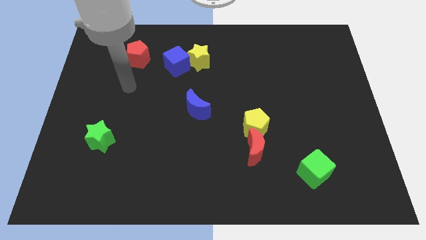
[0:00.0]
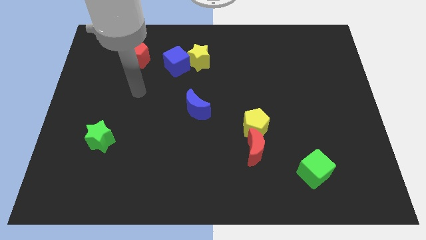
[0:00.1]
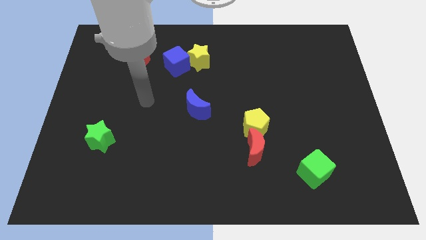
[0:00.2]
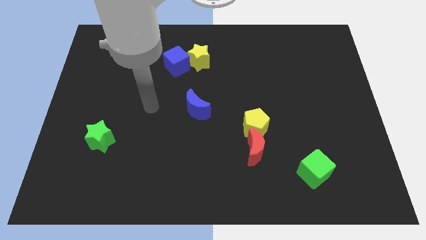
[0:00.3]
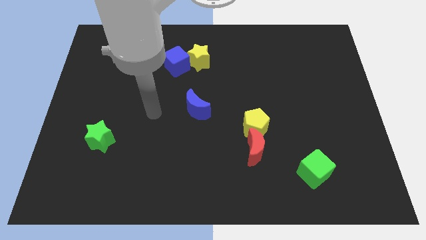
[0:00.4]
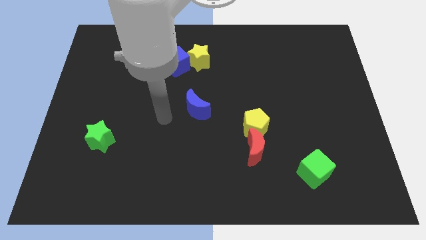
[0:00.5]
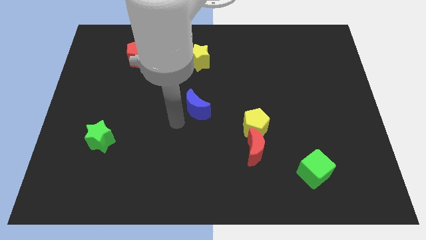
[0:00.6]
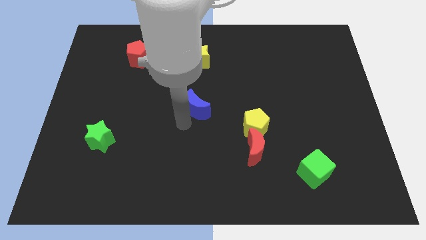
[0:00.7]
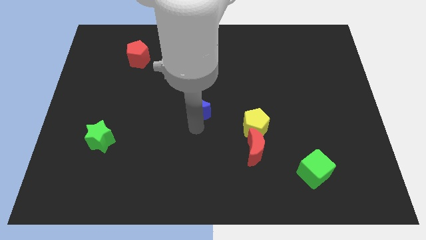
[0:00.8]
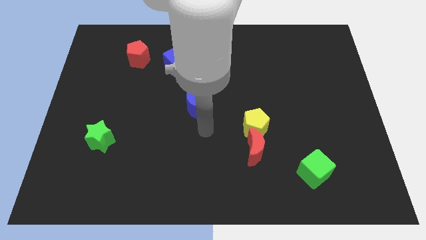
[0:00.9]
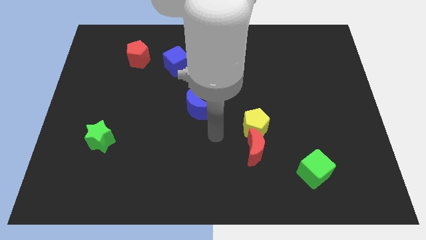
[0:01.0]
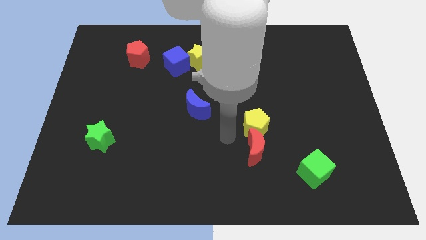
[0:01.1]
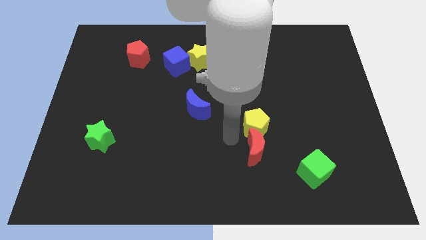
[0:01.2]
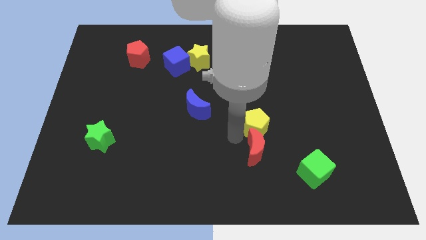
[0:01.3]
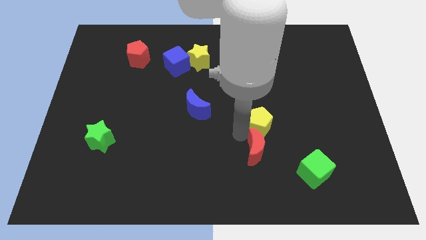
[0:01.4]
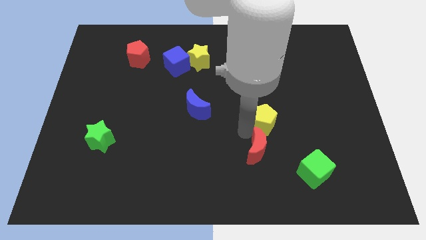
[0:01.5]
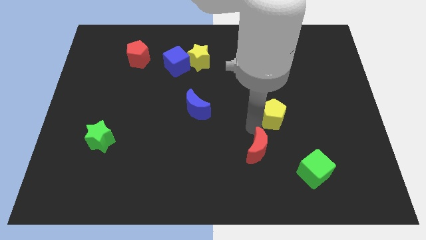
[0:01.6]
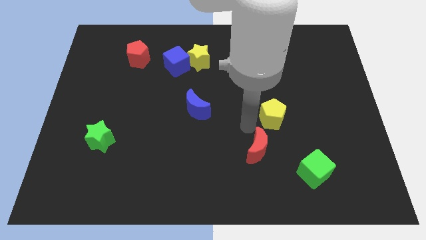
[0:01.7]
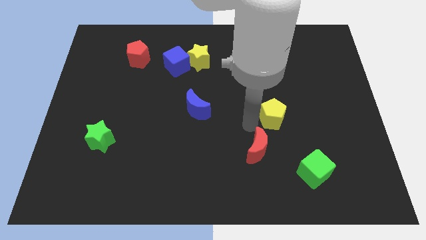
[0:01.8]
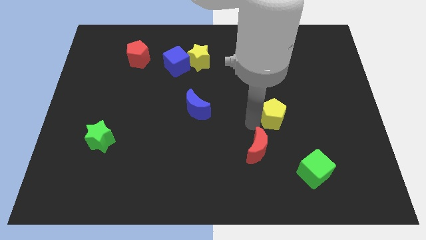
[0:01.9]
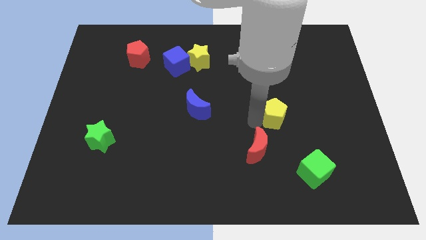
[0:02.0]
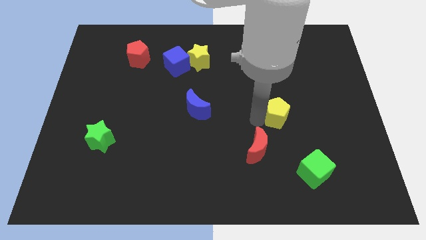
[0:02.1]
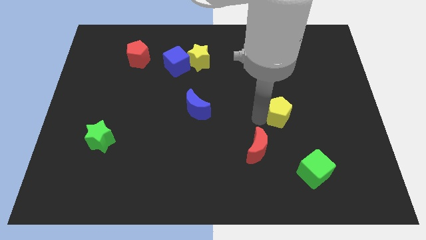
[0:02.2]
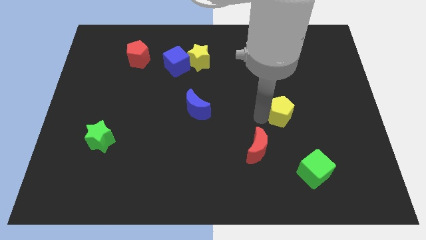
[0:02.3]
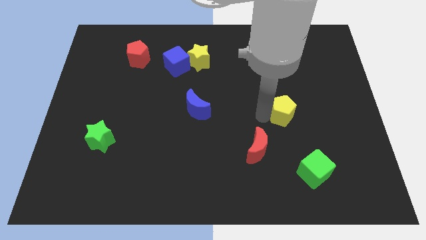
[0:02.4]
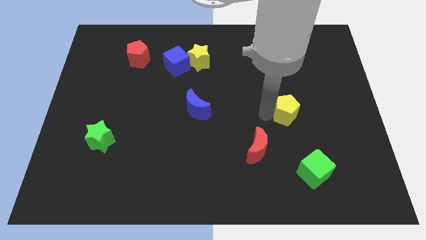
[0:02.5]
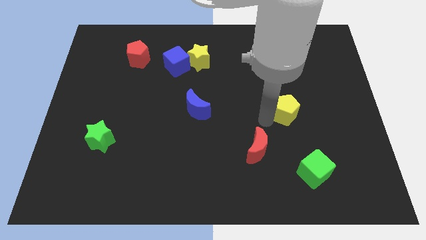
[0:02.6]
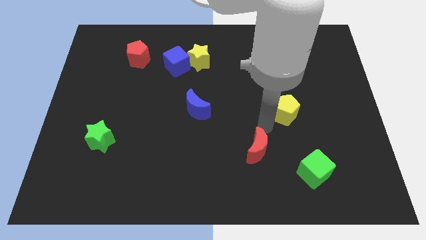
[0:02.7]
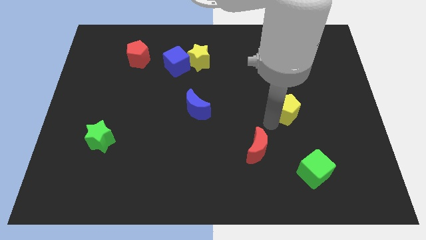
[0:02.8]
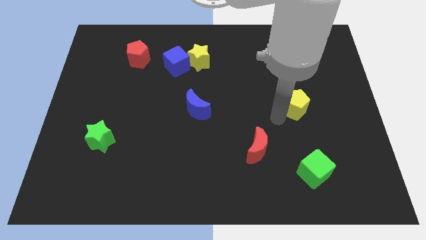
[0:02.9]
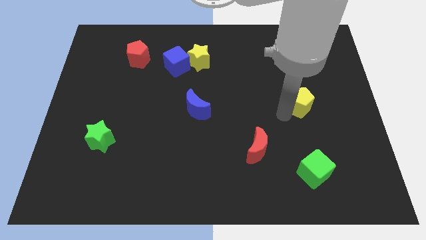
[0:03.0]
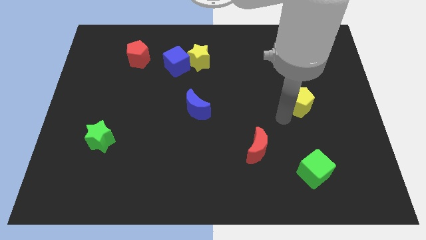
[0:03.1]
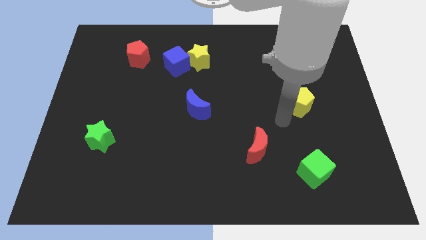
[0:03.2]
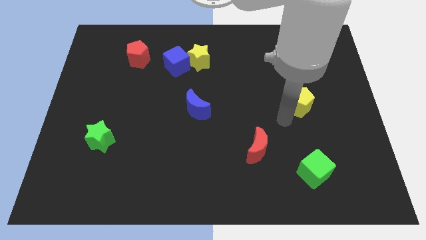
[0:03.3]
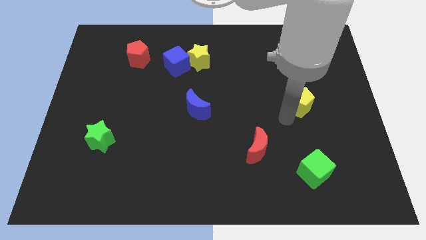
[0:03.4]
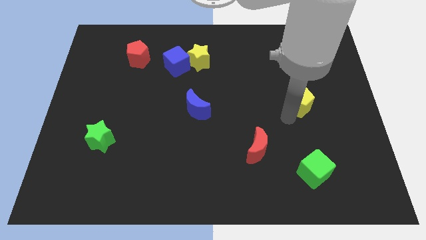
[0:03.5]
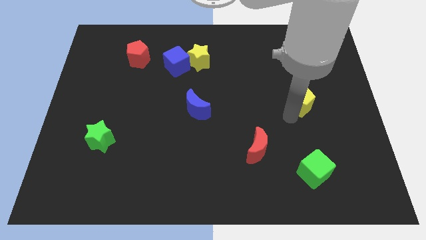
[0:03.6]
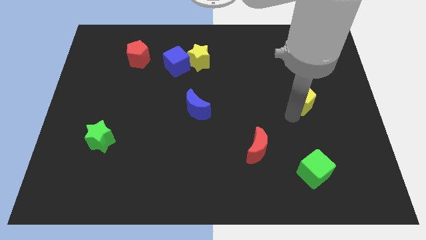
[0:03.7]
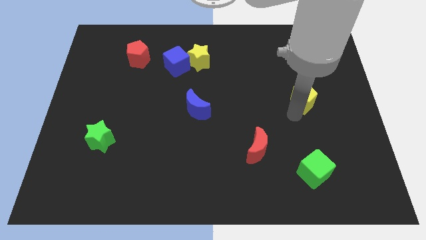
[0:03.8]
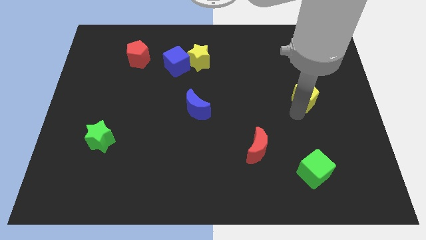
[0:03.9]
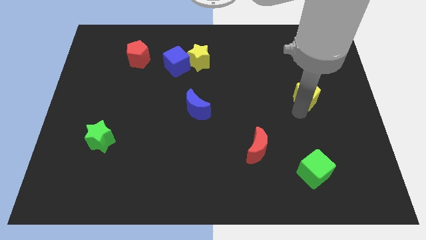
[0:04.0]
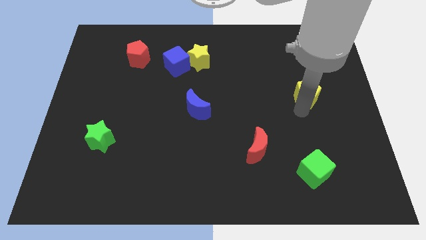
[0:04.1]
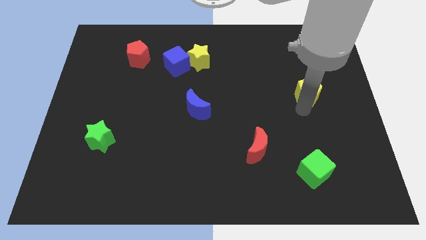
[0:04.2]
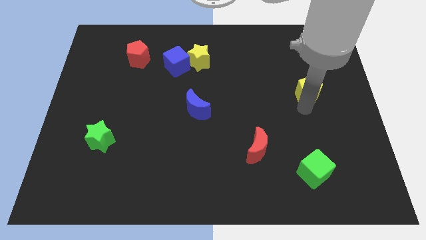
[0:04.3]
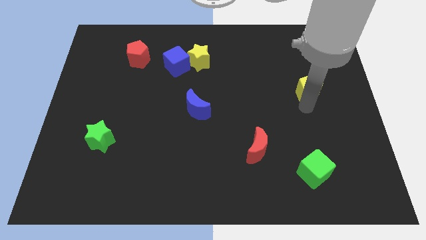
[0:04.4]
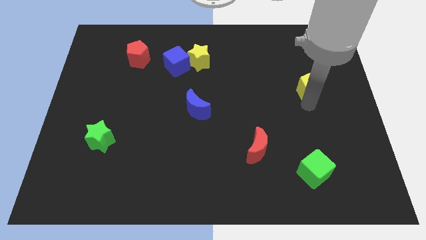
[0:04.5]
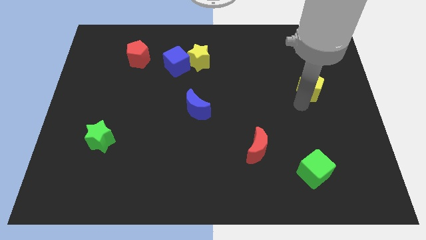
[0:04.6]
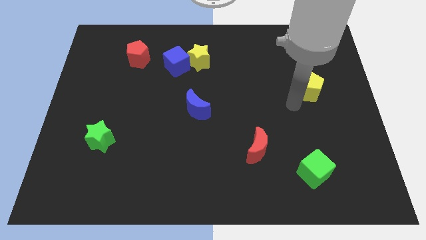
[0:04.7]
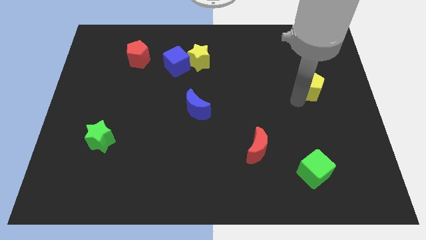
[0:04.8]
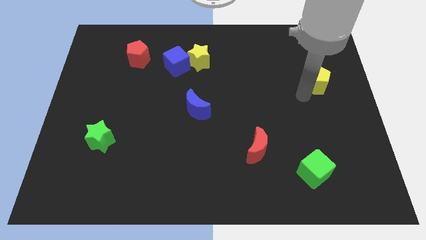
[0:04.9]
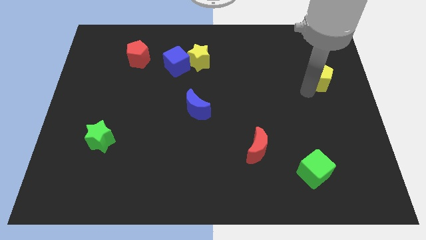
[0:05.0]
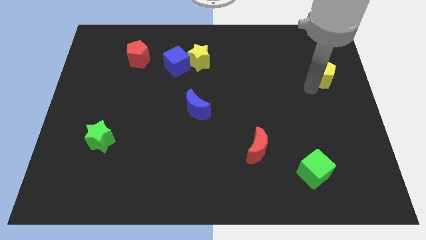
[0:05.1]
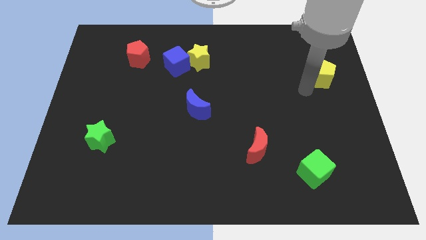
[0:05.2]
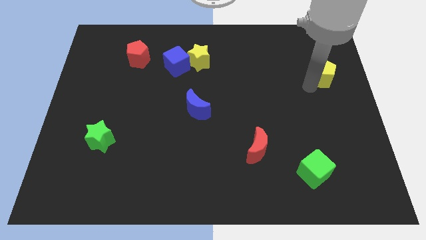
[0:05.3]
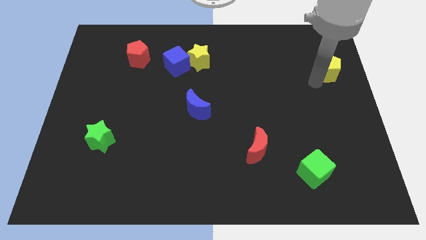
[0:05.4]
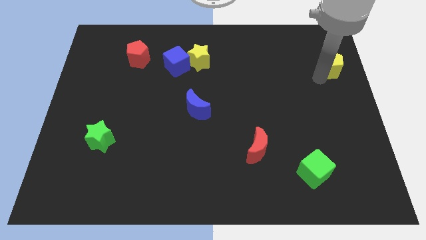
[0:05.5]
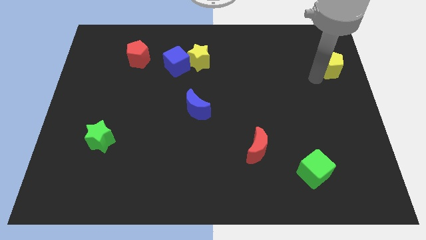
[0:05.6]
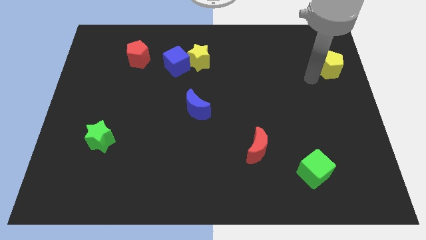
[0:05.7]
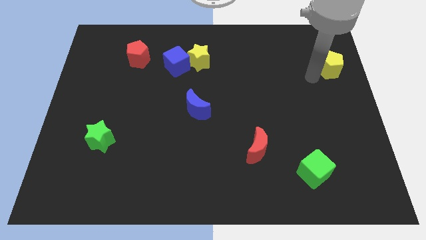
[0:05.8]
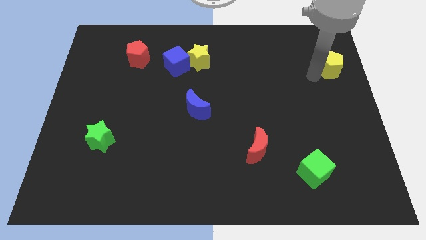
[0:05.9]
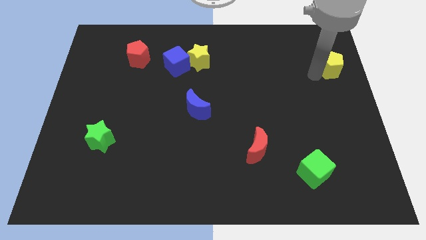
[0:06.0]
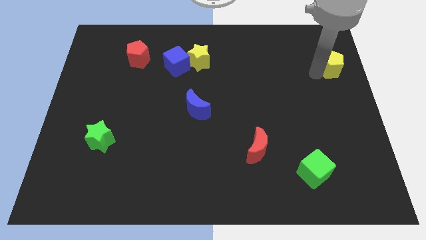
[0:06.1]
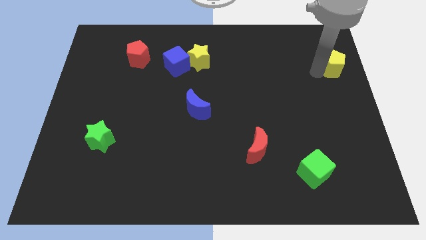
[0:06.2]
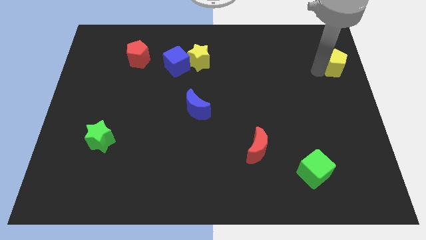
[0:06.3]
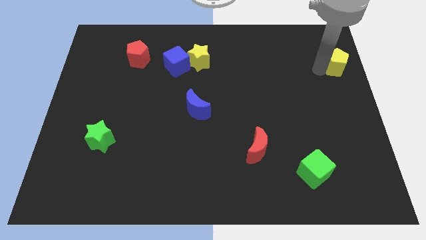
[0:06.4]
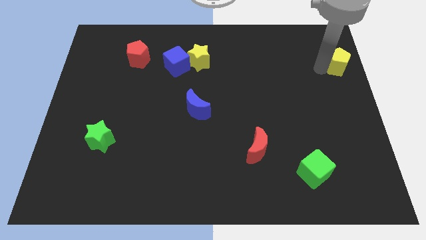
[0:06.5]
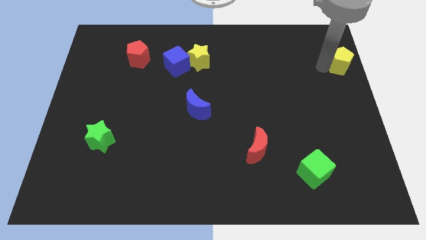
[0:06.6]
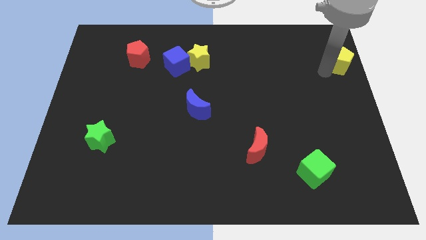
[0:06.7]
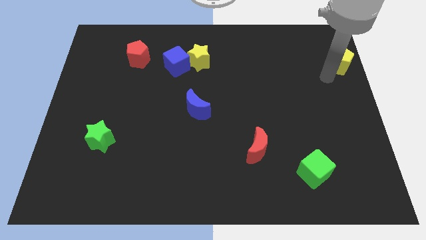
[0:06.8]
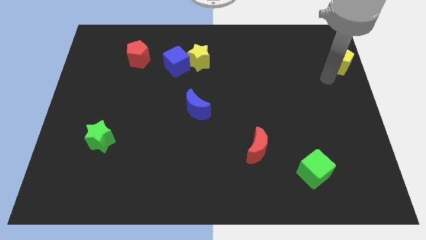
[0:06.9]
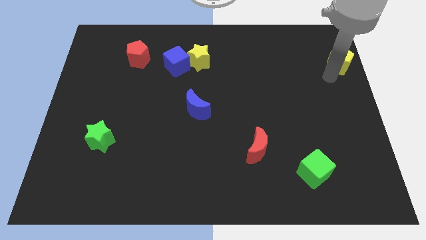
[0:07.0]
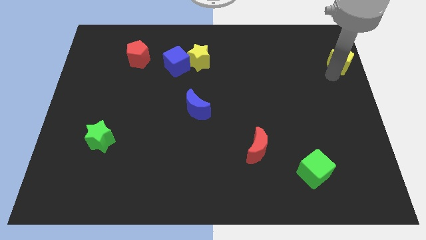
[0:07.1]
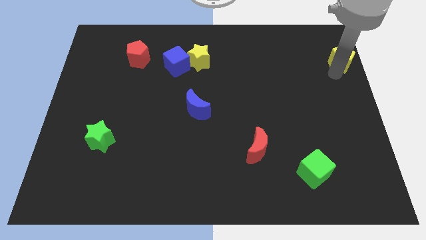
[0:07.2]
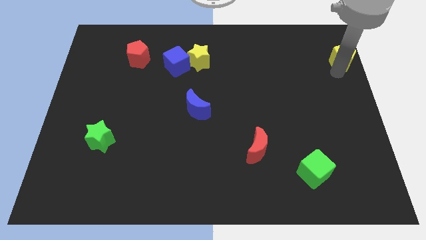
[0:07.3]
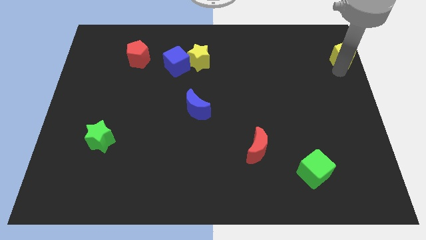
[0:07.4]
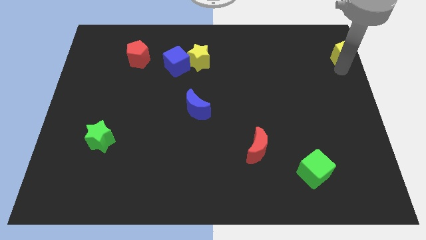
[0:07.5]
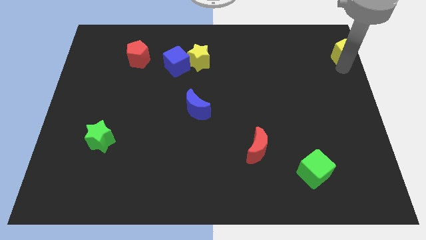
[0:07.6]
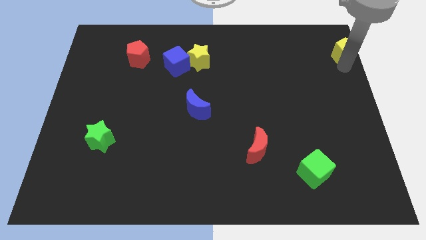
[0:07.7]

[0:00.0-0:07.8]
move the yellow pentagon to the top right of the board
